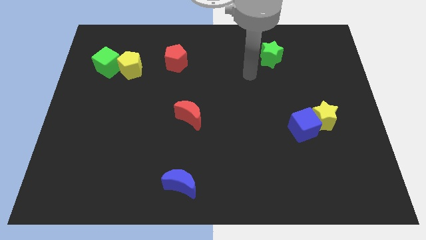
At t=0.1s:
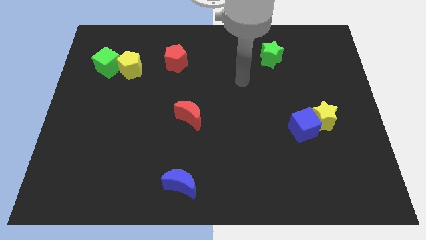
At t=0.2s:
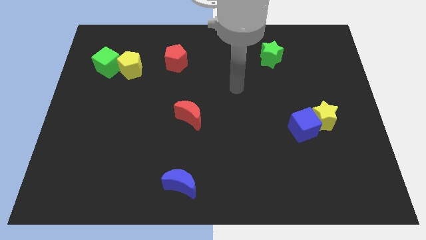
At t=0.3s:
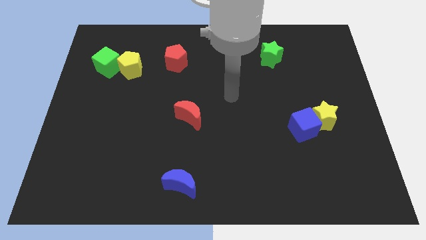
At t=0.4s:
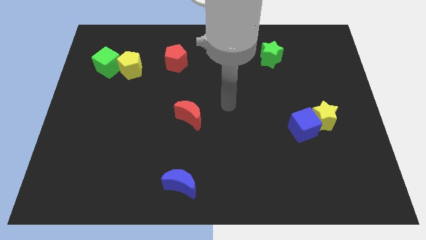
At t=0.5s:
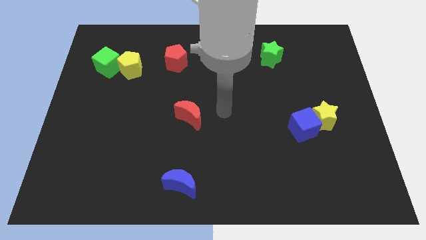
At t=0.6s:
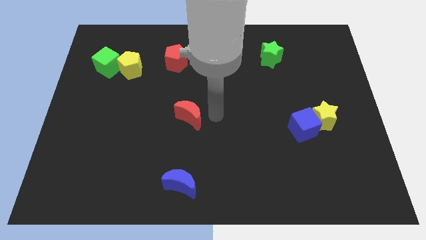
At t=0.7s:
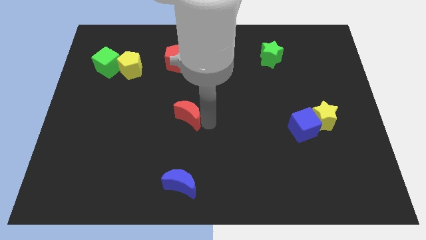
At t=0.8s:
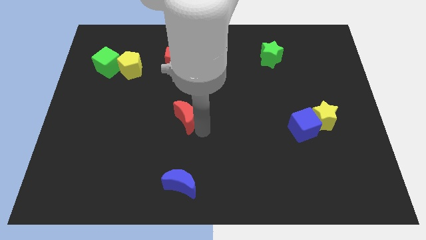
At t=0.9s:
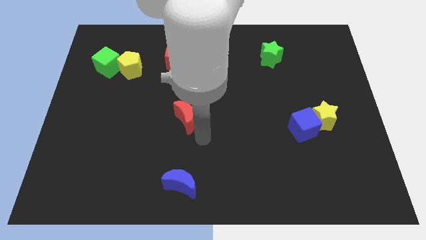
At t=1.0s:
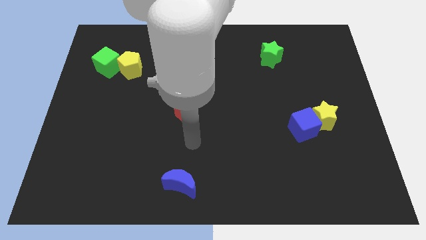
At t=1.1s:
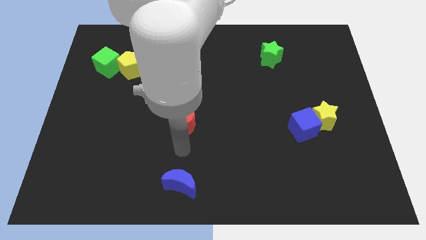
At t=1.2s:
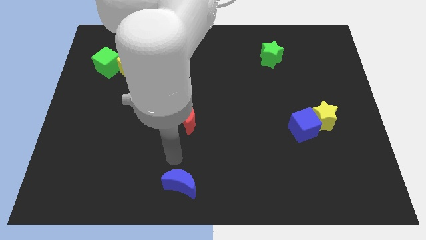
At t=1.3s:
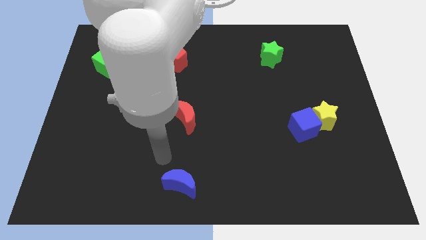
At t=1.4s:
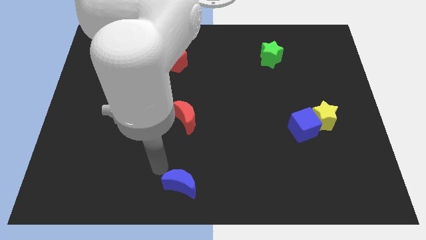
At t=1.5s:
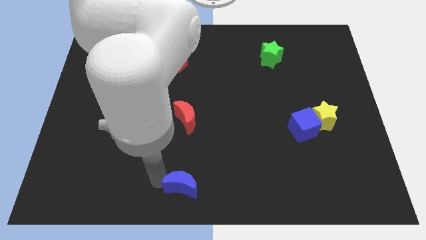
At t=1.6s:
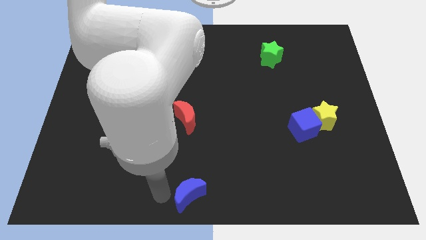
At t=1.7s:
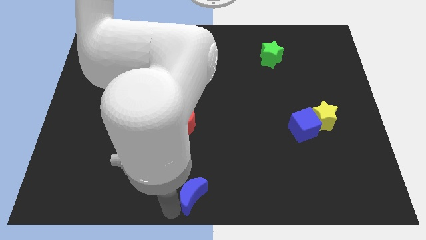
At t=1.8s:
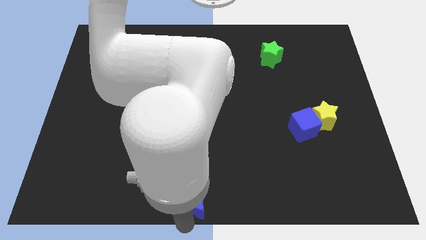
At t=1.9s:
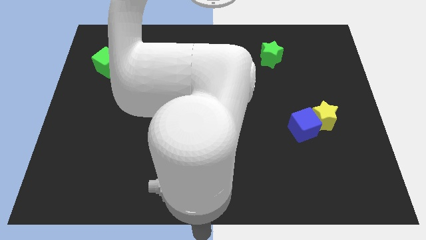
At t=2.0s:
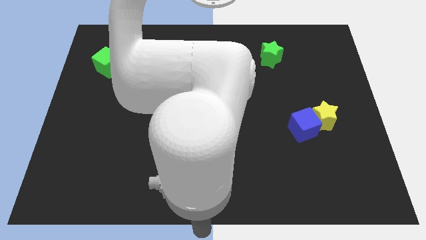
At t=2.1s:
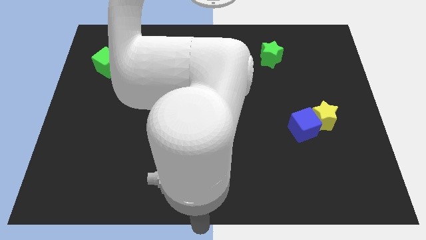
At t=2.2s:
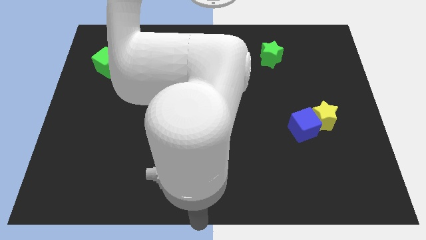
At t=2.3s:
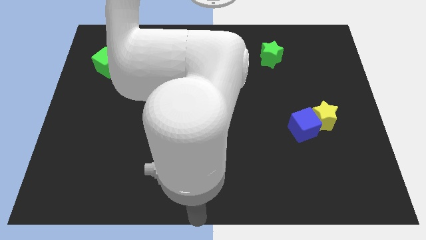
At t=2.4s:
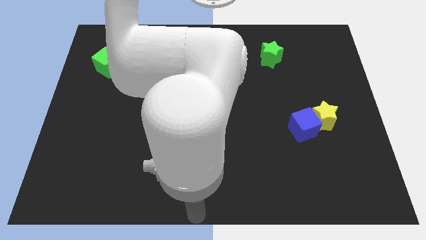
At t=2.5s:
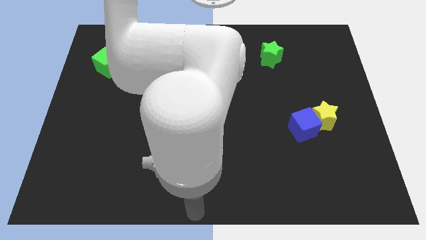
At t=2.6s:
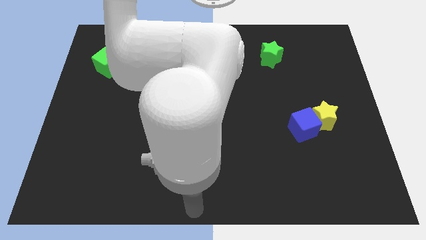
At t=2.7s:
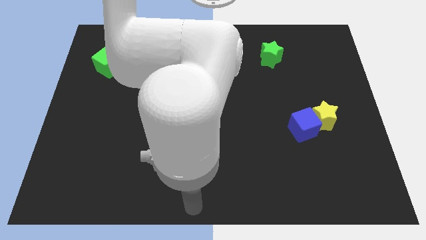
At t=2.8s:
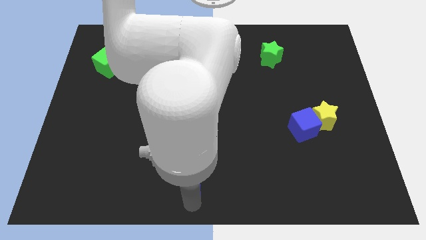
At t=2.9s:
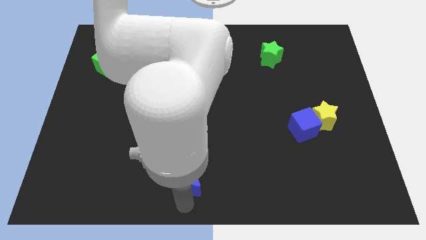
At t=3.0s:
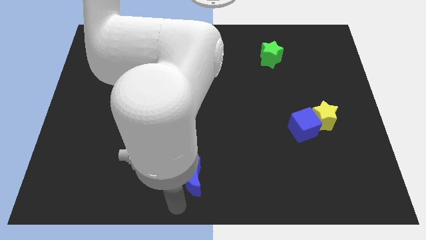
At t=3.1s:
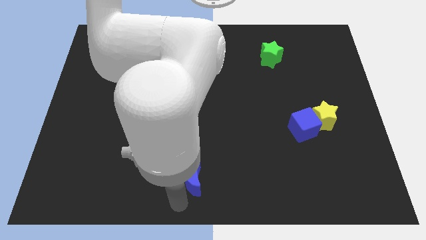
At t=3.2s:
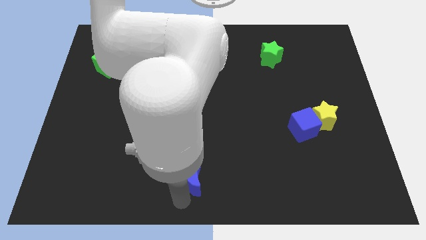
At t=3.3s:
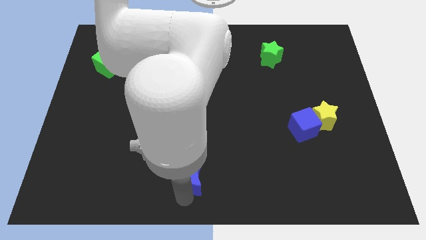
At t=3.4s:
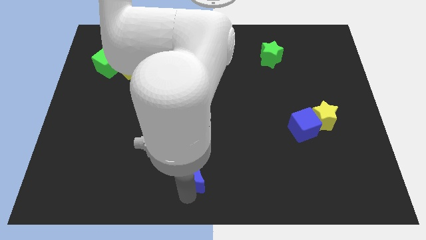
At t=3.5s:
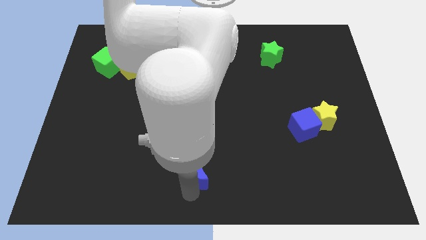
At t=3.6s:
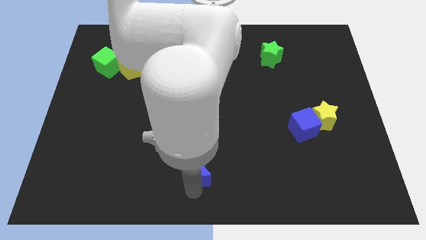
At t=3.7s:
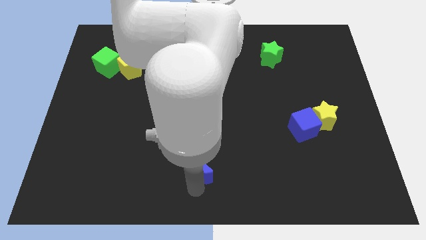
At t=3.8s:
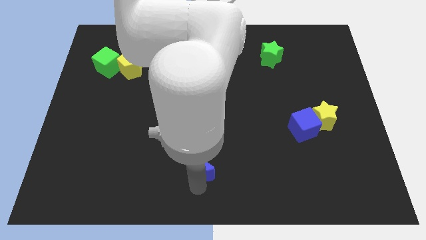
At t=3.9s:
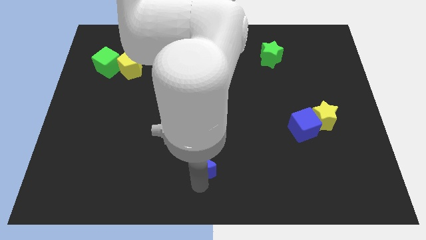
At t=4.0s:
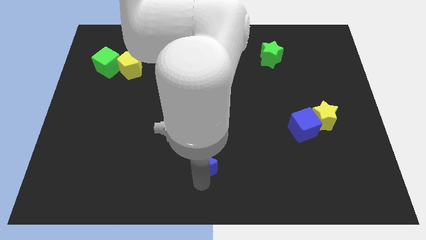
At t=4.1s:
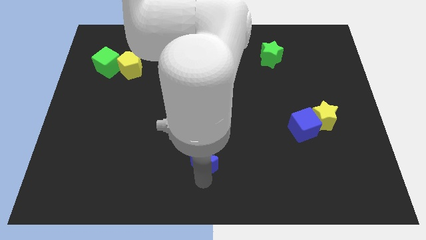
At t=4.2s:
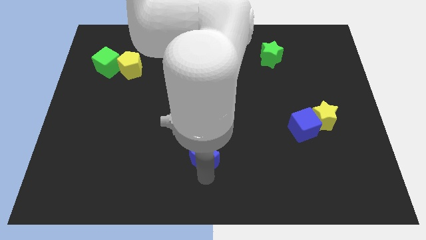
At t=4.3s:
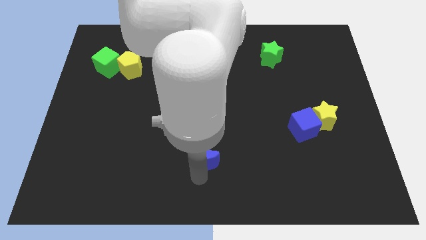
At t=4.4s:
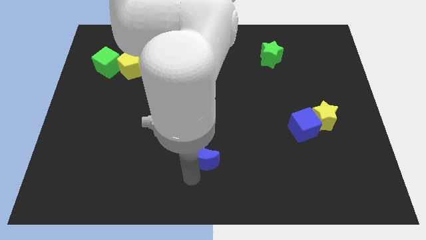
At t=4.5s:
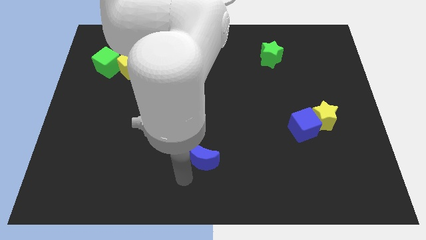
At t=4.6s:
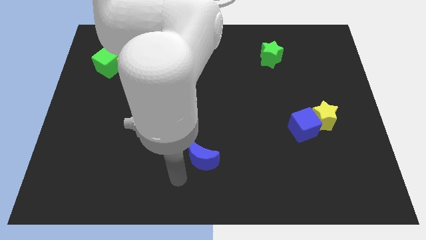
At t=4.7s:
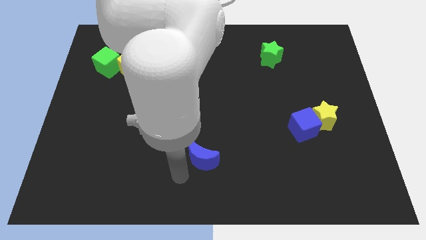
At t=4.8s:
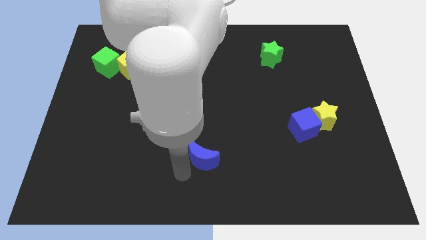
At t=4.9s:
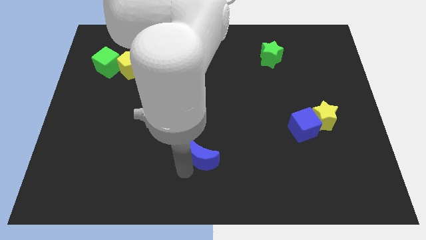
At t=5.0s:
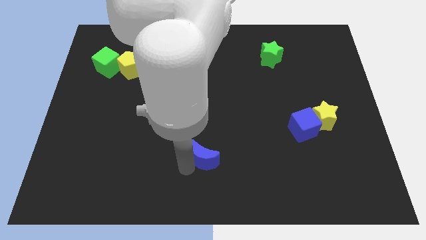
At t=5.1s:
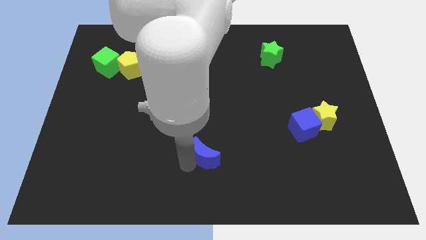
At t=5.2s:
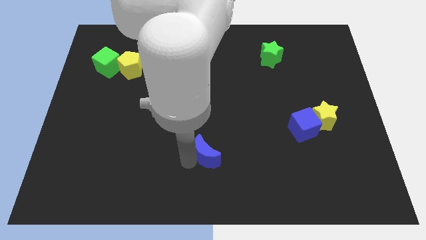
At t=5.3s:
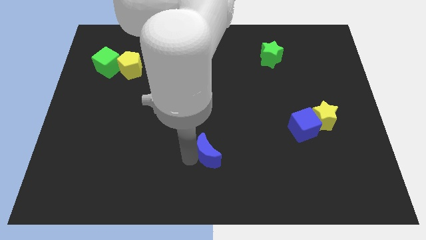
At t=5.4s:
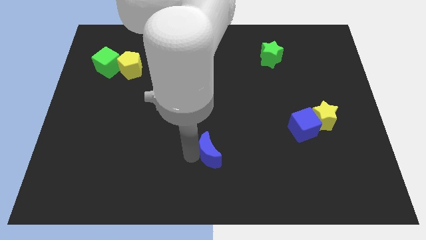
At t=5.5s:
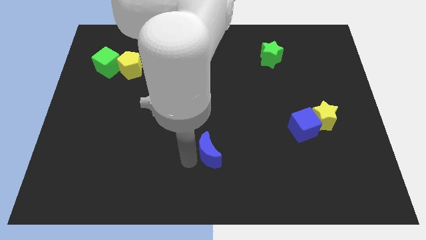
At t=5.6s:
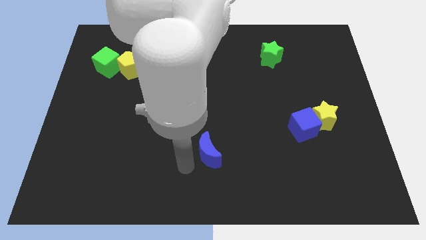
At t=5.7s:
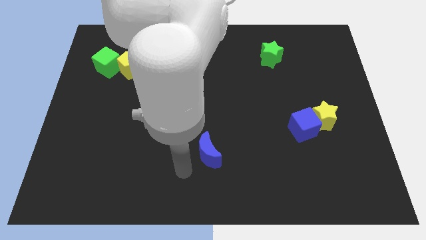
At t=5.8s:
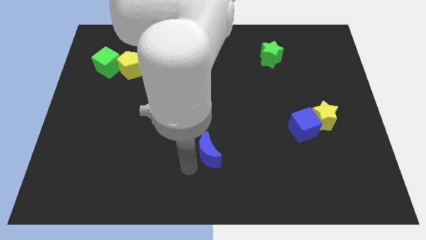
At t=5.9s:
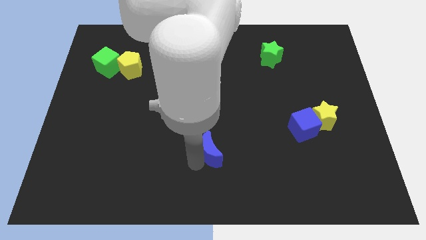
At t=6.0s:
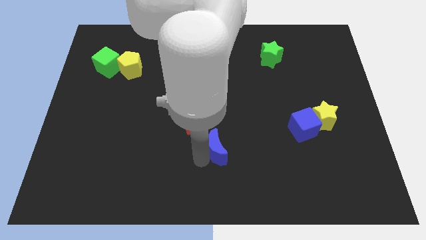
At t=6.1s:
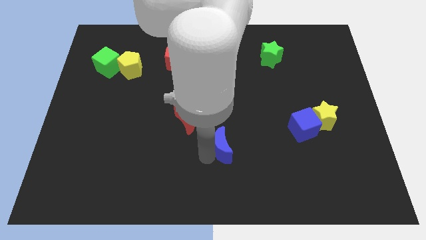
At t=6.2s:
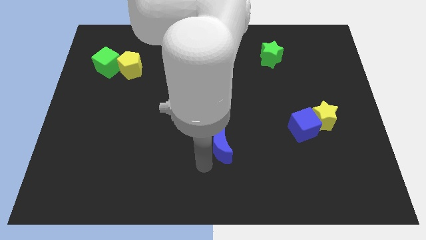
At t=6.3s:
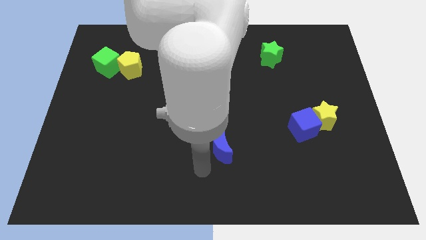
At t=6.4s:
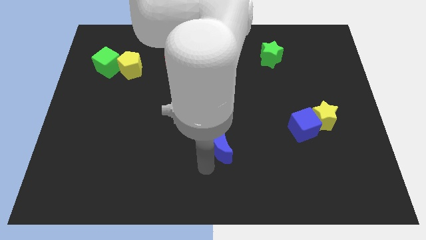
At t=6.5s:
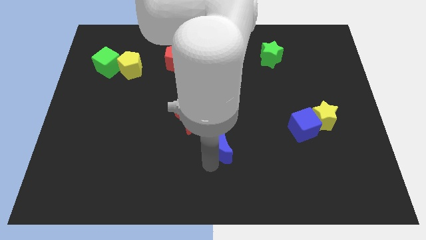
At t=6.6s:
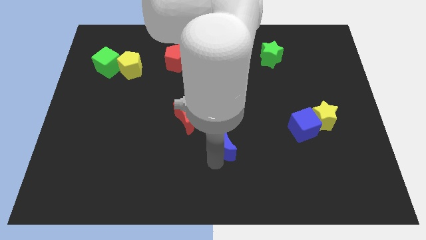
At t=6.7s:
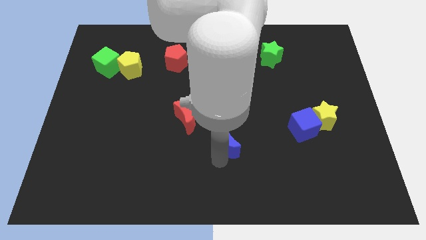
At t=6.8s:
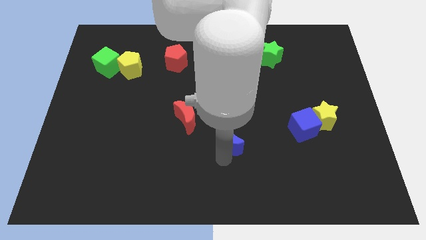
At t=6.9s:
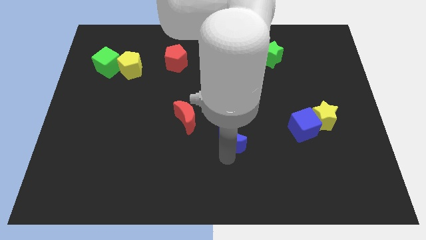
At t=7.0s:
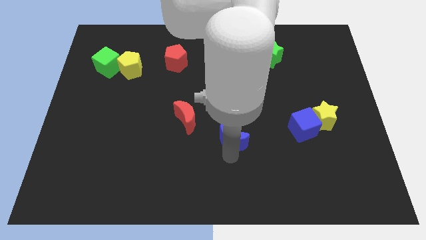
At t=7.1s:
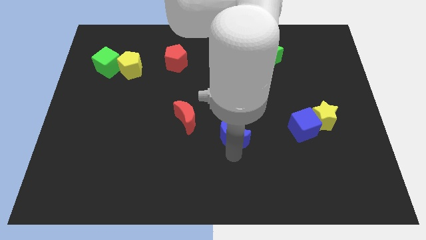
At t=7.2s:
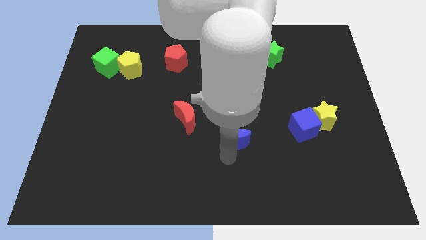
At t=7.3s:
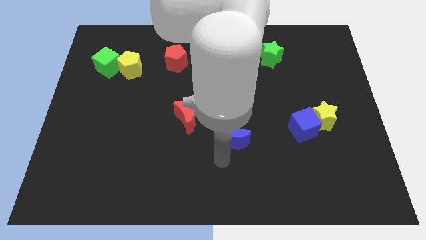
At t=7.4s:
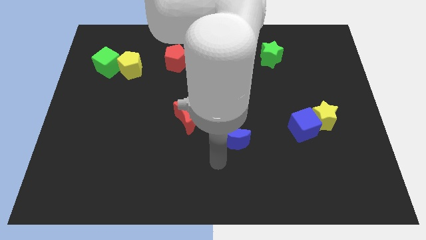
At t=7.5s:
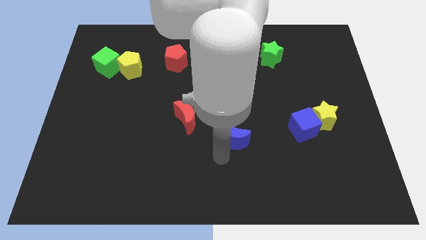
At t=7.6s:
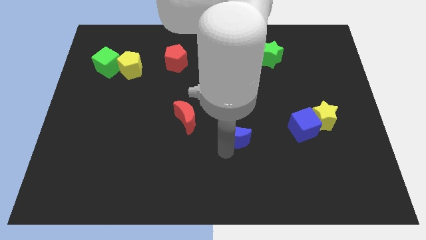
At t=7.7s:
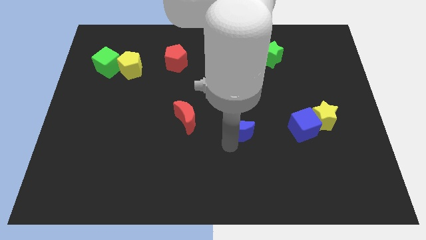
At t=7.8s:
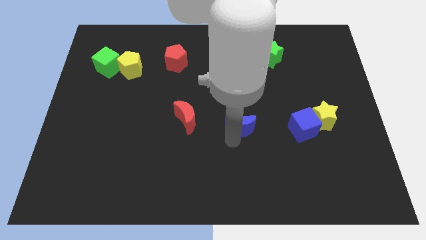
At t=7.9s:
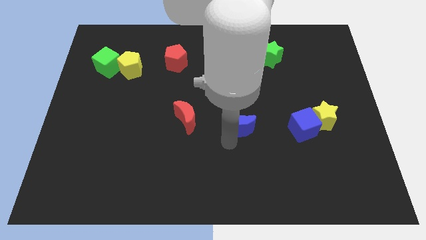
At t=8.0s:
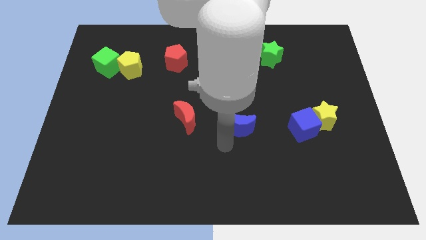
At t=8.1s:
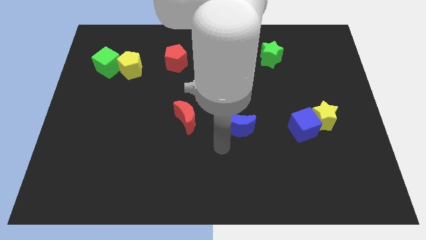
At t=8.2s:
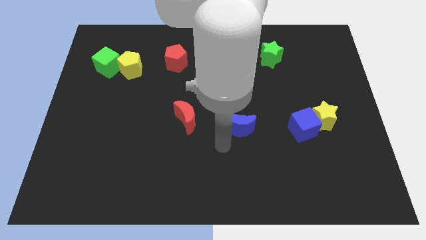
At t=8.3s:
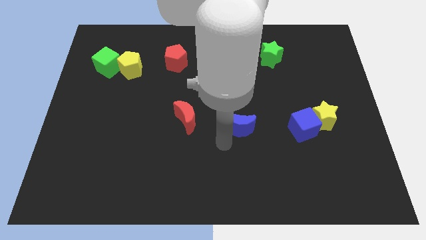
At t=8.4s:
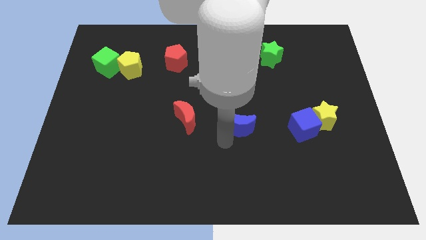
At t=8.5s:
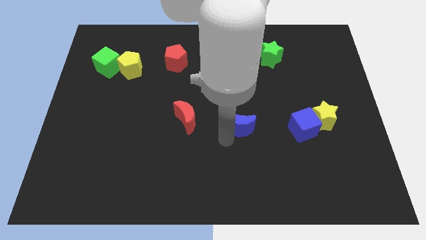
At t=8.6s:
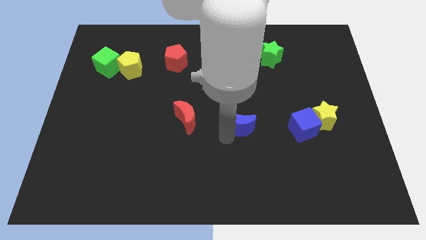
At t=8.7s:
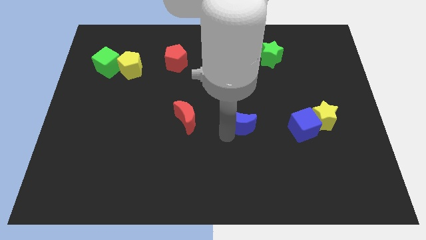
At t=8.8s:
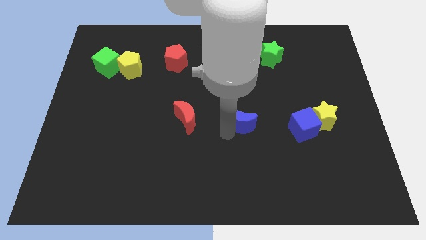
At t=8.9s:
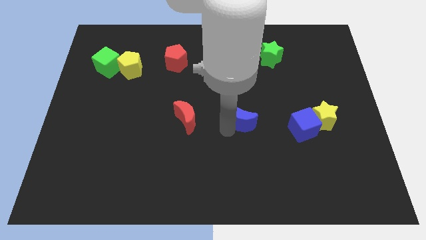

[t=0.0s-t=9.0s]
push the blue moon up and right diagonally
